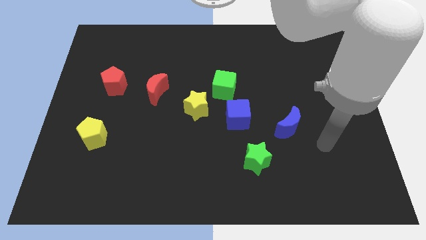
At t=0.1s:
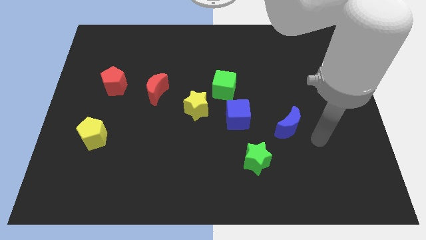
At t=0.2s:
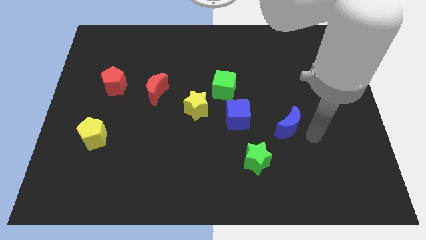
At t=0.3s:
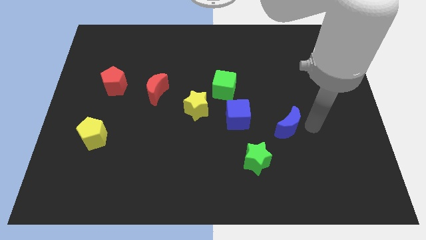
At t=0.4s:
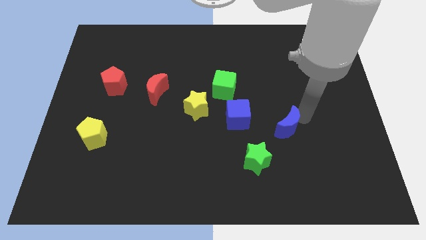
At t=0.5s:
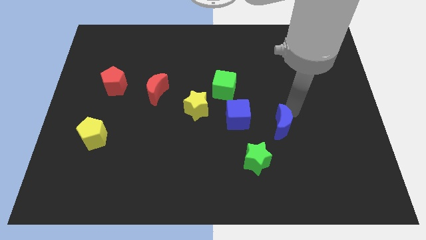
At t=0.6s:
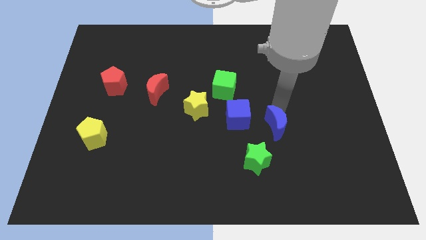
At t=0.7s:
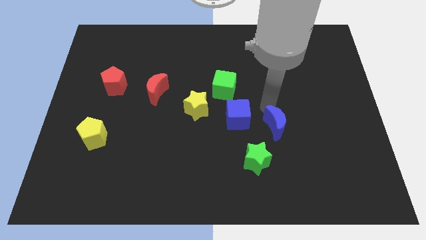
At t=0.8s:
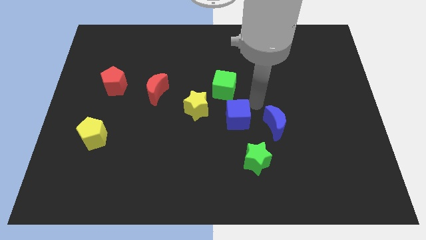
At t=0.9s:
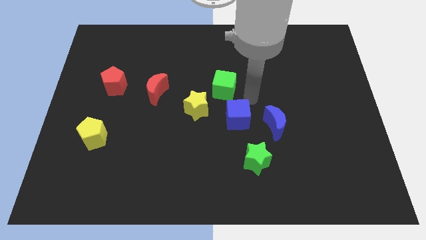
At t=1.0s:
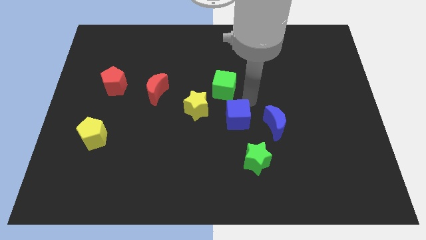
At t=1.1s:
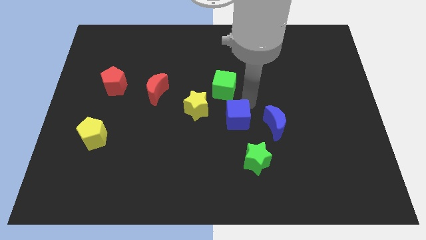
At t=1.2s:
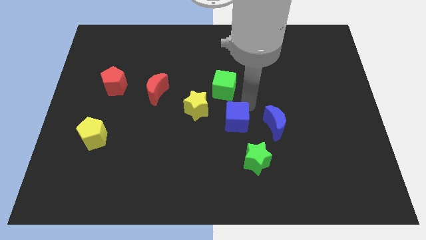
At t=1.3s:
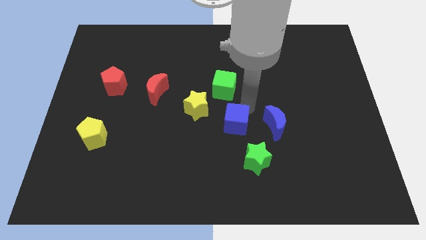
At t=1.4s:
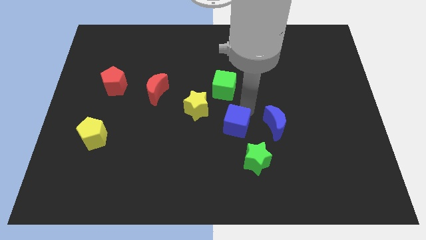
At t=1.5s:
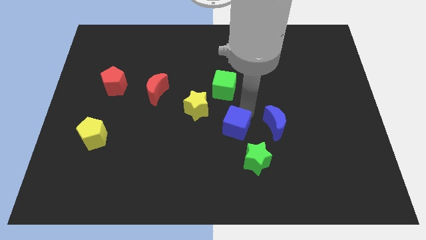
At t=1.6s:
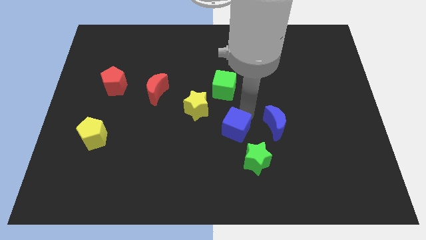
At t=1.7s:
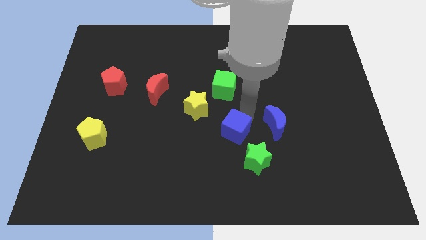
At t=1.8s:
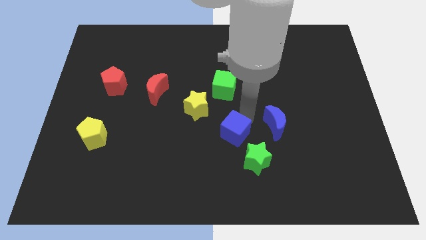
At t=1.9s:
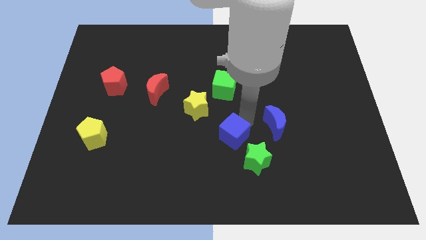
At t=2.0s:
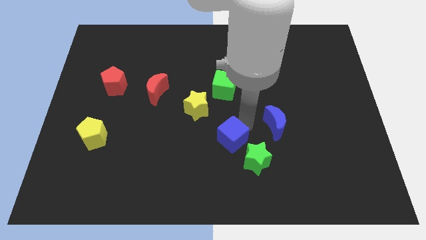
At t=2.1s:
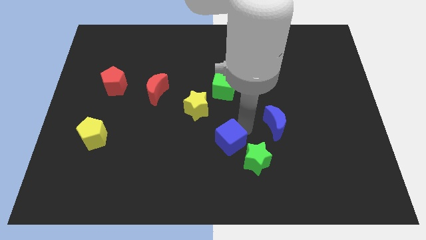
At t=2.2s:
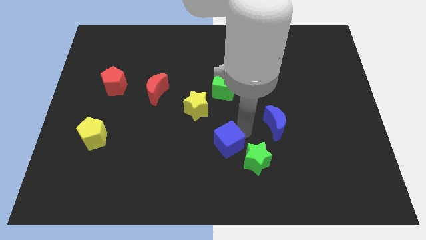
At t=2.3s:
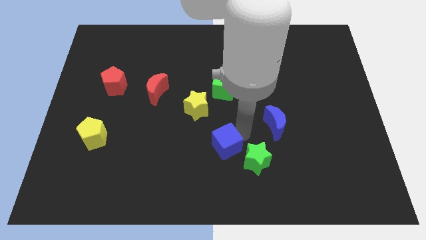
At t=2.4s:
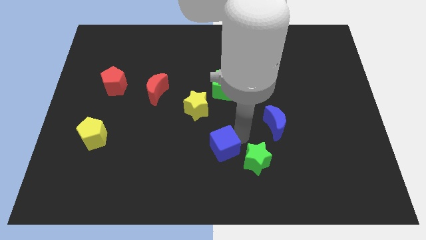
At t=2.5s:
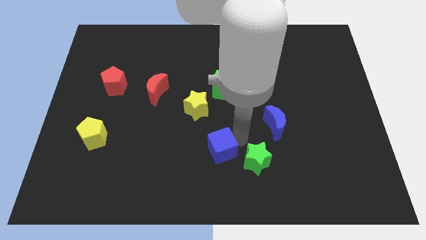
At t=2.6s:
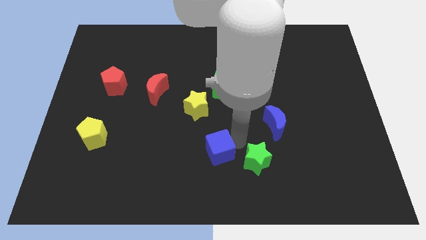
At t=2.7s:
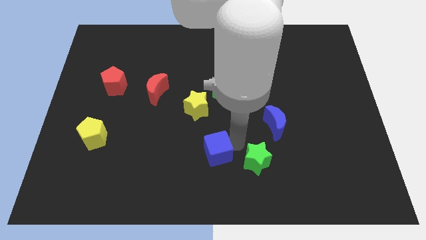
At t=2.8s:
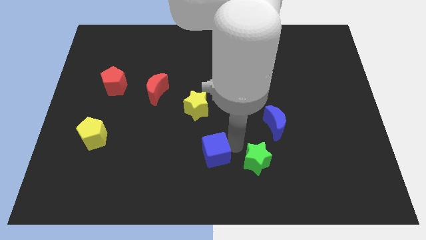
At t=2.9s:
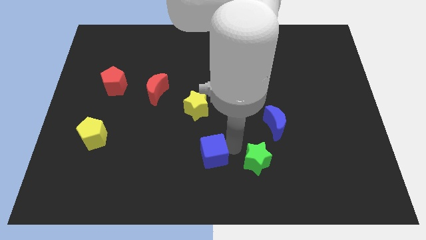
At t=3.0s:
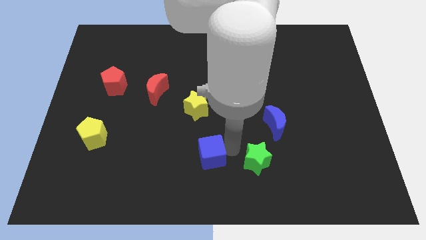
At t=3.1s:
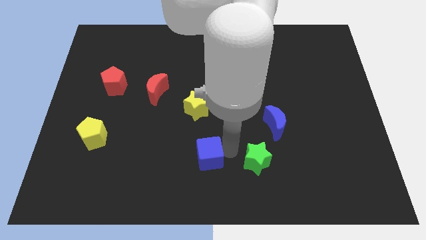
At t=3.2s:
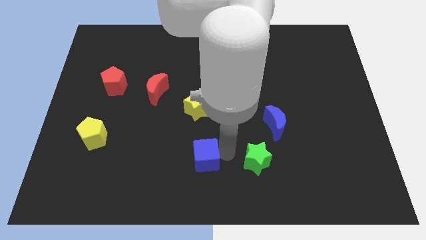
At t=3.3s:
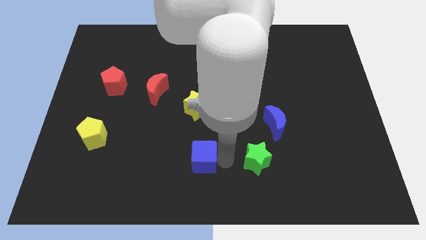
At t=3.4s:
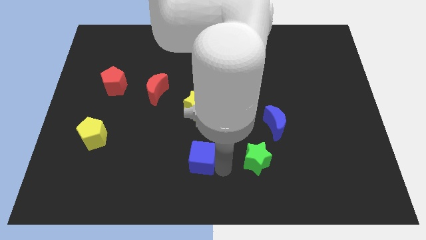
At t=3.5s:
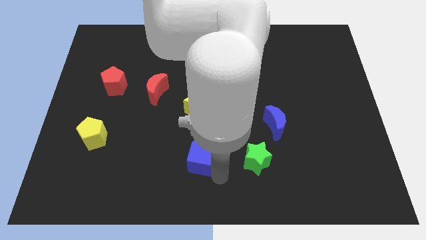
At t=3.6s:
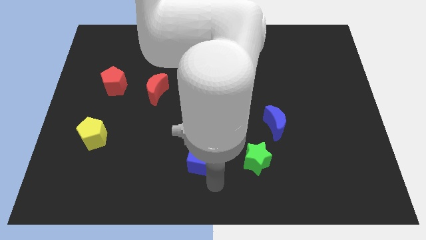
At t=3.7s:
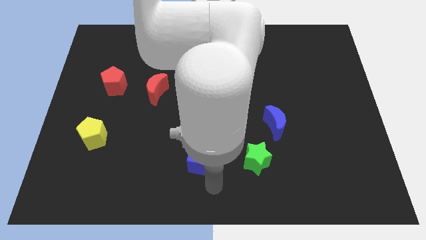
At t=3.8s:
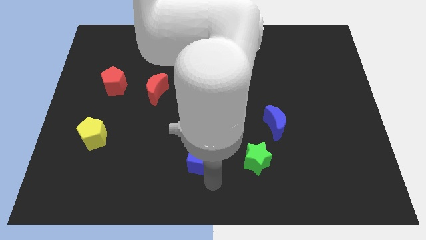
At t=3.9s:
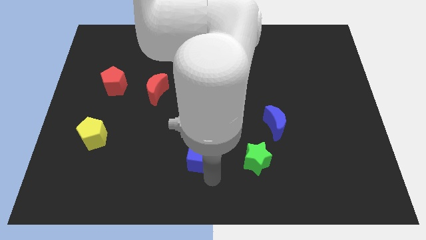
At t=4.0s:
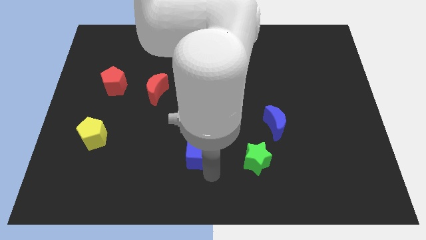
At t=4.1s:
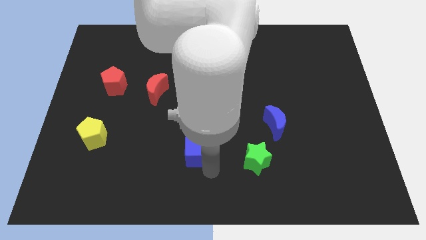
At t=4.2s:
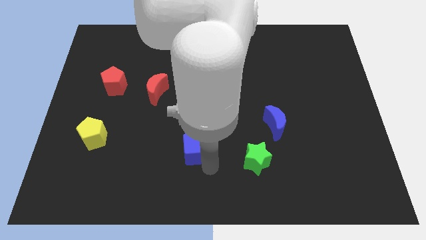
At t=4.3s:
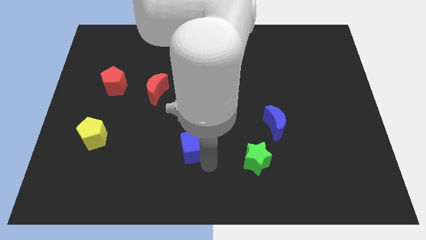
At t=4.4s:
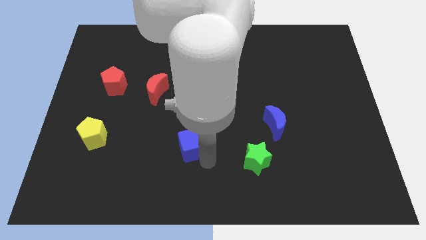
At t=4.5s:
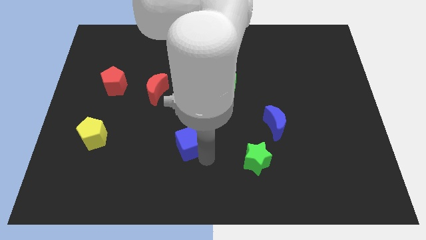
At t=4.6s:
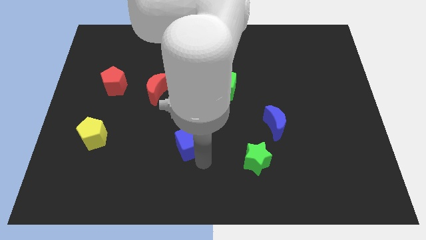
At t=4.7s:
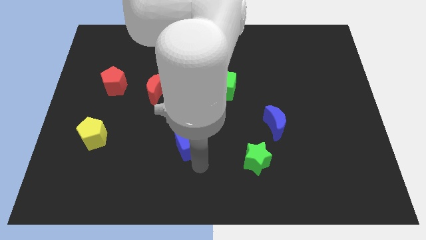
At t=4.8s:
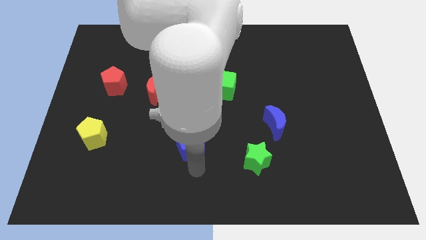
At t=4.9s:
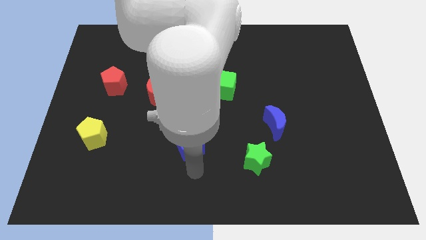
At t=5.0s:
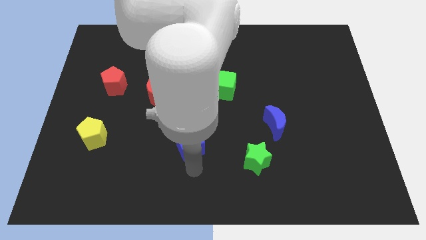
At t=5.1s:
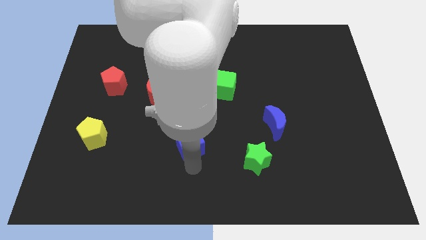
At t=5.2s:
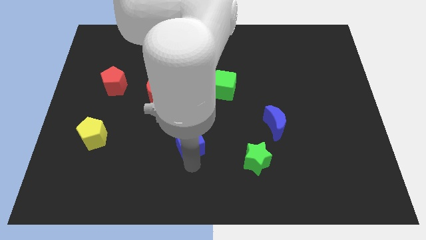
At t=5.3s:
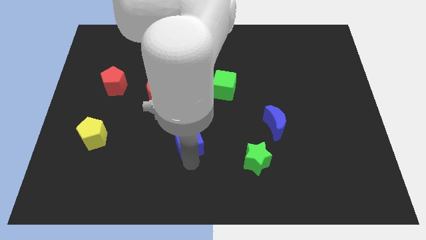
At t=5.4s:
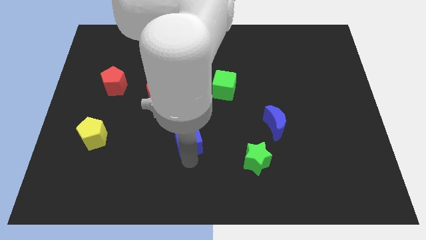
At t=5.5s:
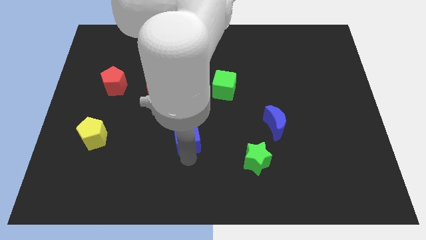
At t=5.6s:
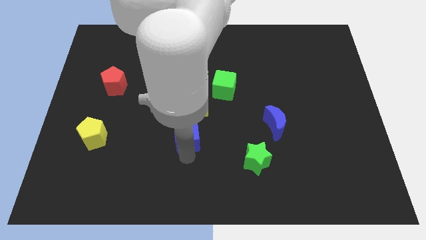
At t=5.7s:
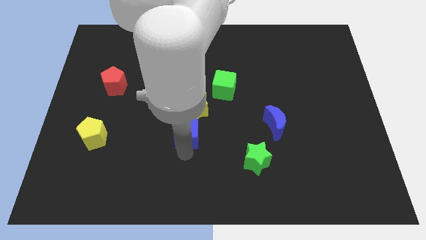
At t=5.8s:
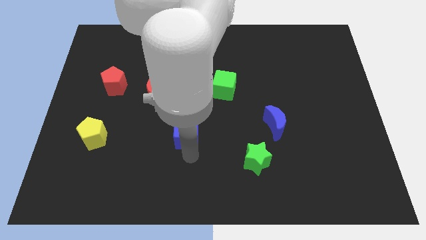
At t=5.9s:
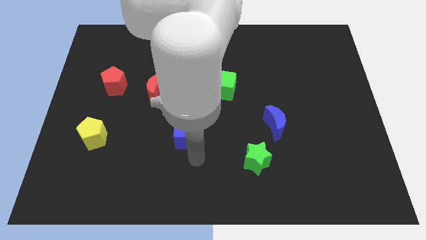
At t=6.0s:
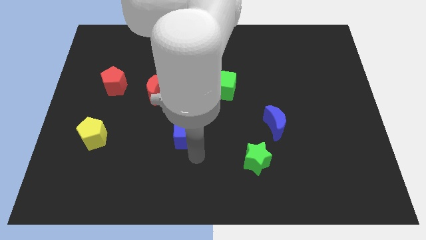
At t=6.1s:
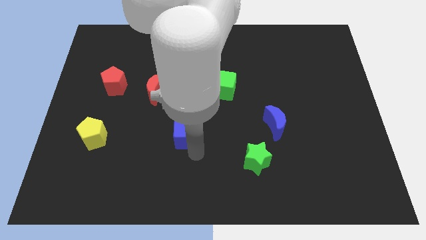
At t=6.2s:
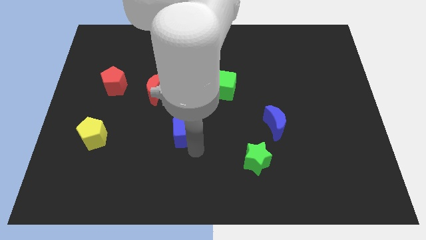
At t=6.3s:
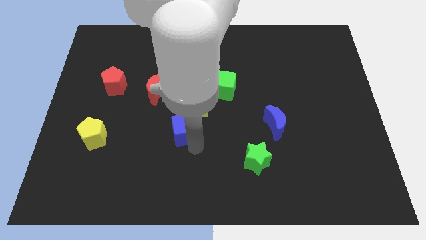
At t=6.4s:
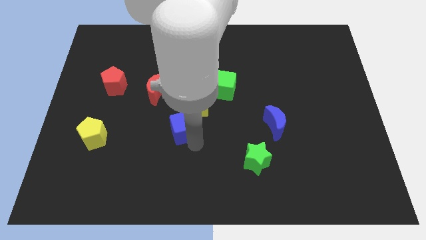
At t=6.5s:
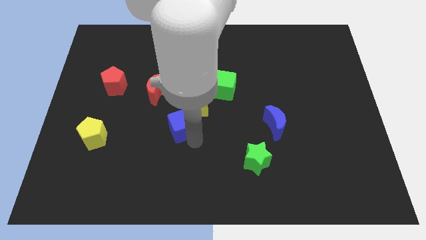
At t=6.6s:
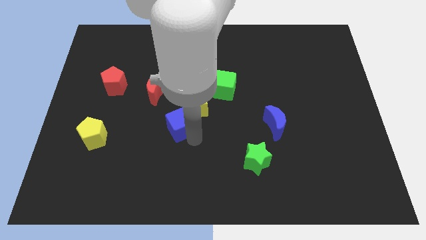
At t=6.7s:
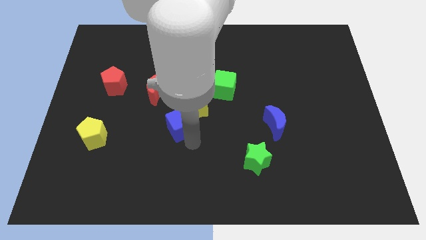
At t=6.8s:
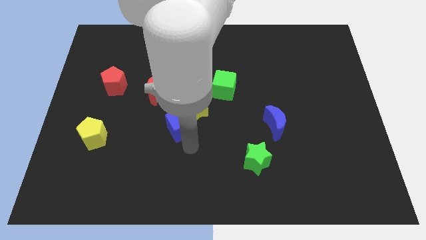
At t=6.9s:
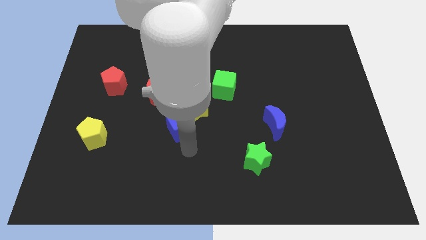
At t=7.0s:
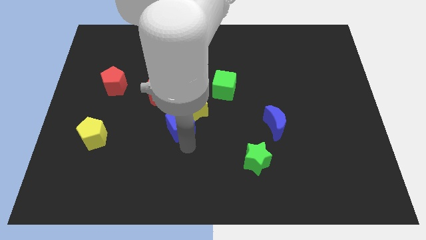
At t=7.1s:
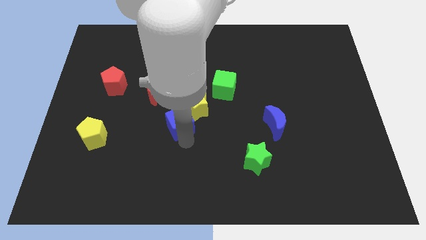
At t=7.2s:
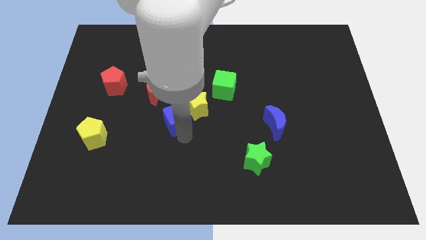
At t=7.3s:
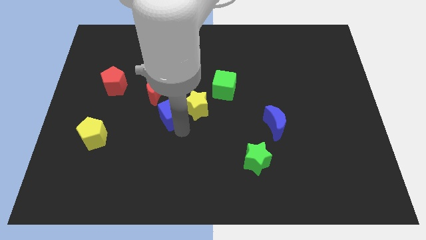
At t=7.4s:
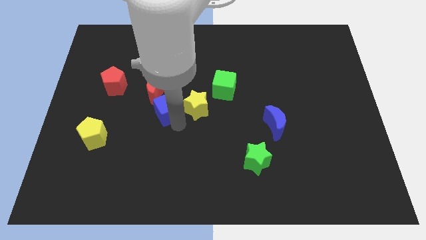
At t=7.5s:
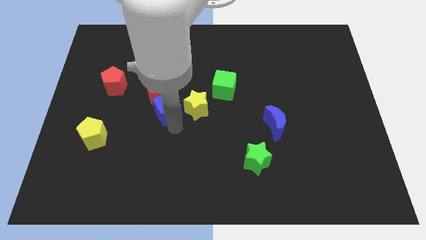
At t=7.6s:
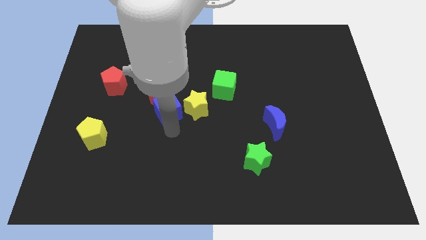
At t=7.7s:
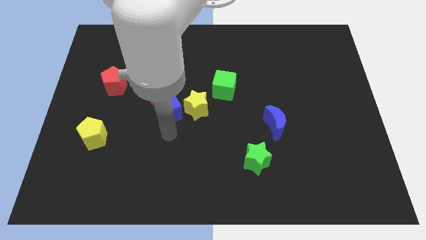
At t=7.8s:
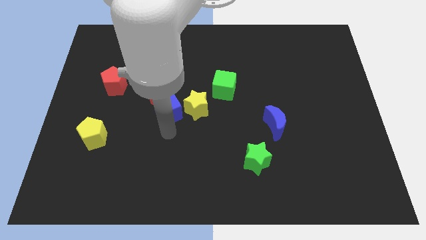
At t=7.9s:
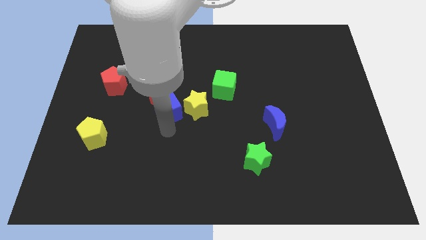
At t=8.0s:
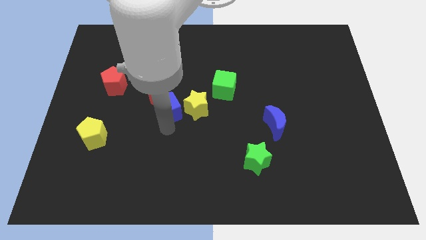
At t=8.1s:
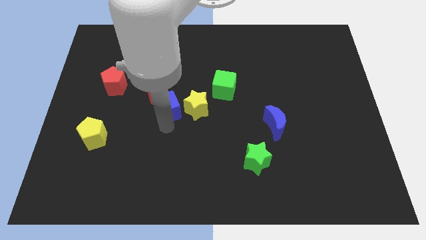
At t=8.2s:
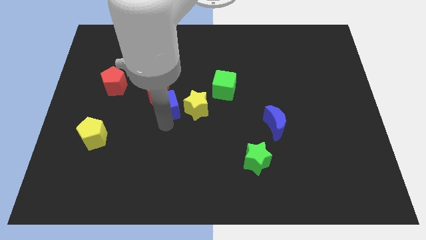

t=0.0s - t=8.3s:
push the blue cube to the red moon
